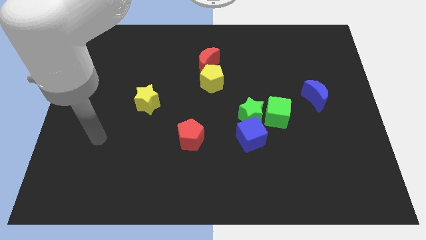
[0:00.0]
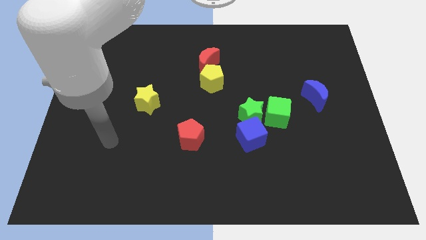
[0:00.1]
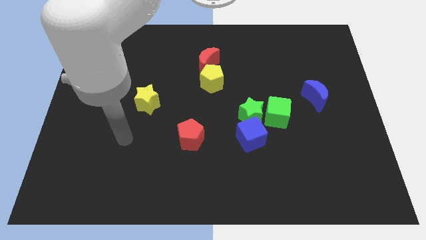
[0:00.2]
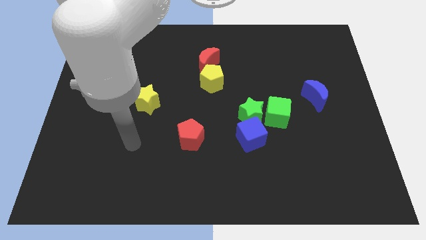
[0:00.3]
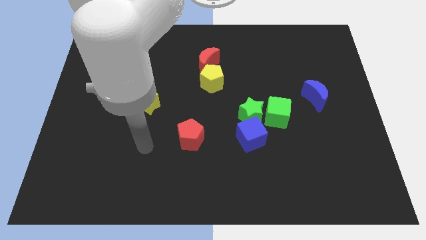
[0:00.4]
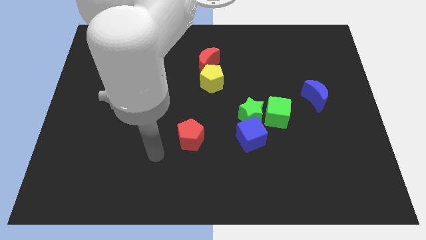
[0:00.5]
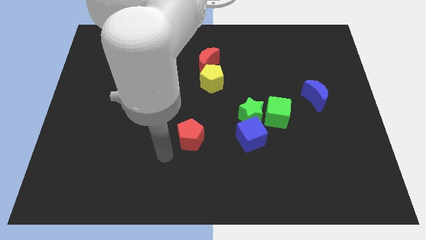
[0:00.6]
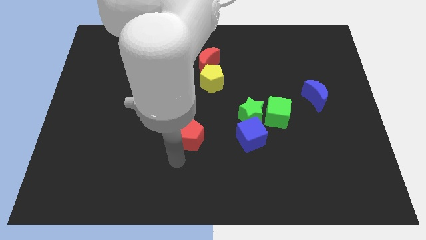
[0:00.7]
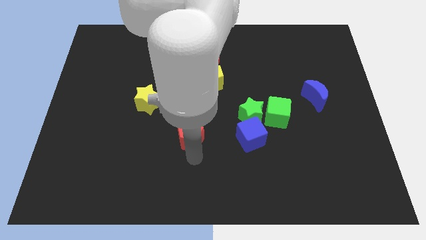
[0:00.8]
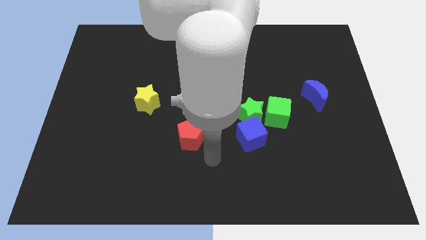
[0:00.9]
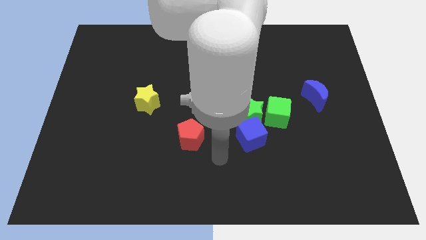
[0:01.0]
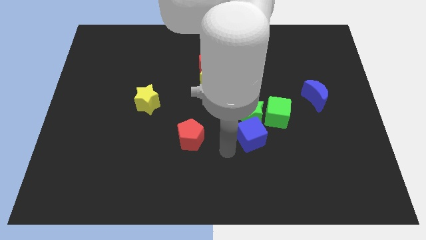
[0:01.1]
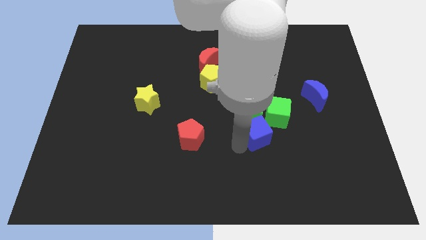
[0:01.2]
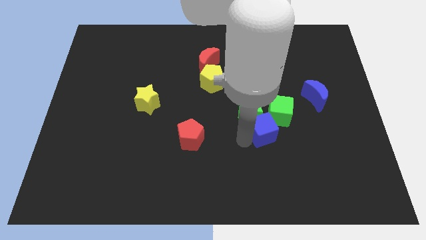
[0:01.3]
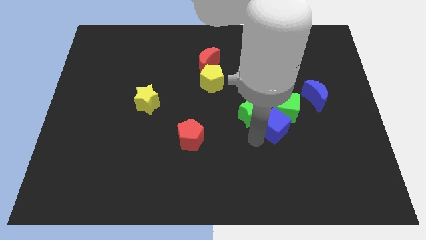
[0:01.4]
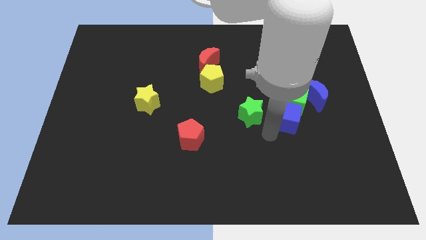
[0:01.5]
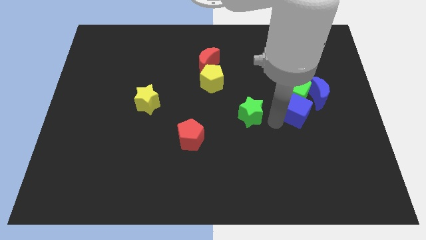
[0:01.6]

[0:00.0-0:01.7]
move the green star away from the blue cube and green cube

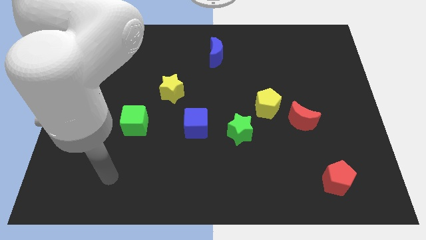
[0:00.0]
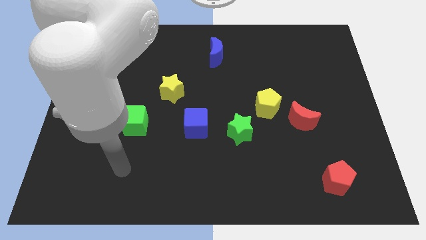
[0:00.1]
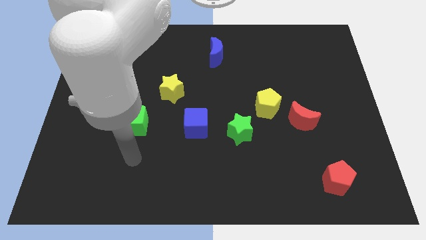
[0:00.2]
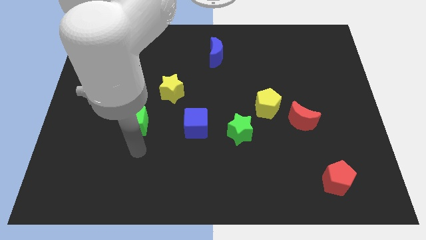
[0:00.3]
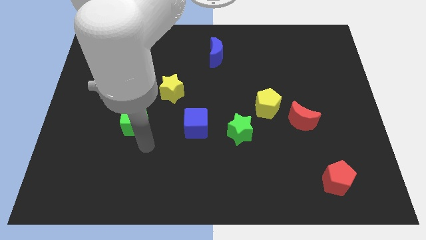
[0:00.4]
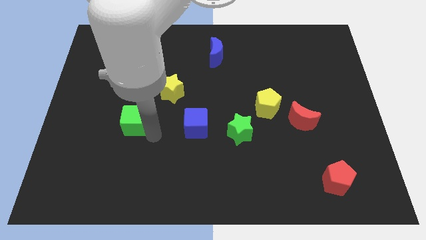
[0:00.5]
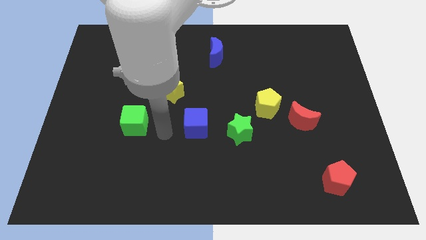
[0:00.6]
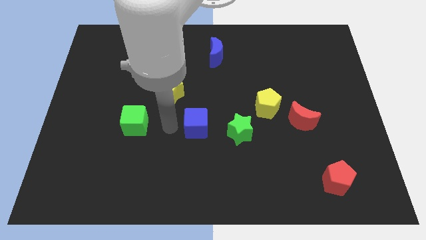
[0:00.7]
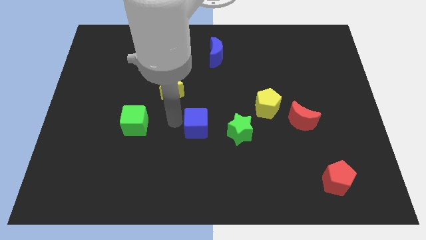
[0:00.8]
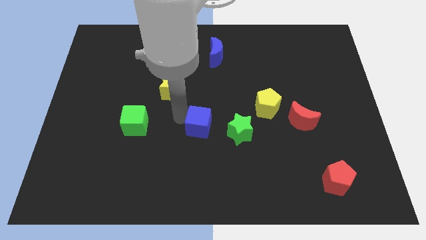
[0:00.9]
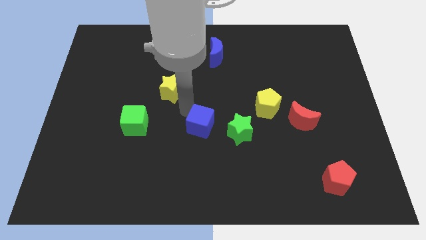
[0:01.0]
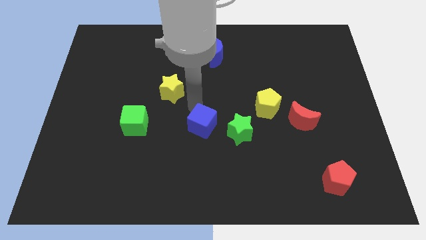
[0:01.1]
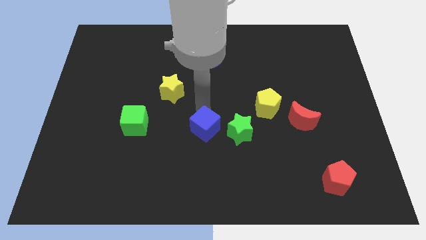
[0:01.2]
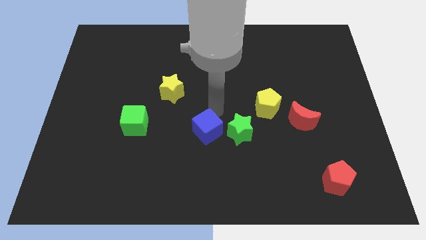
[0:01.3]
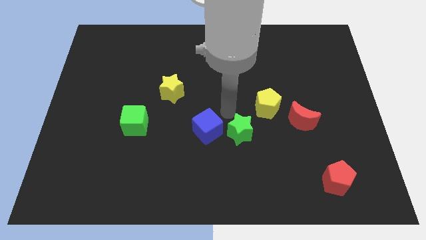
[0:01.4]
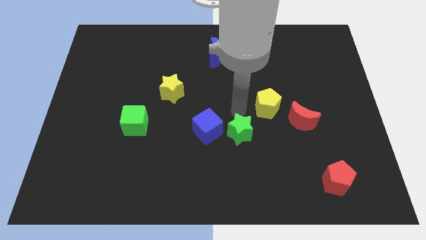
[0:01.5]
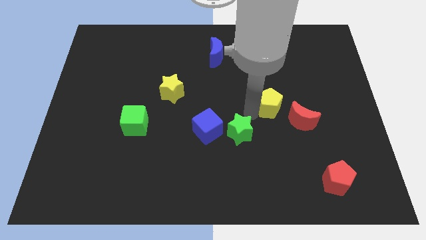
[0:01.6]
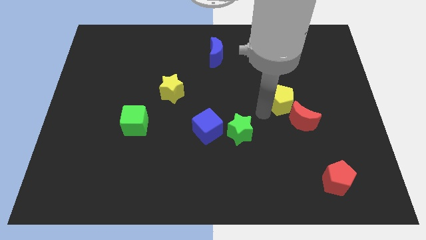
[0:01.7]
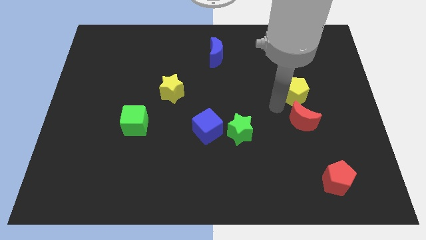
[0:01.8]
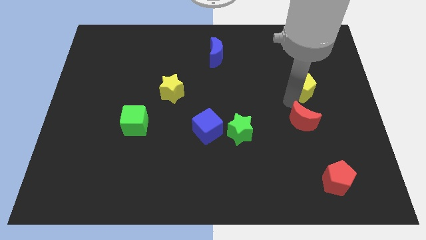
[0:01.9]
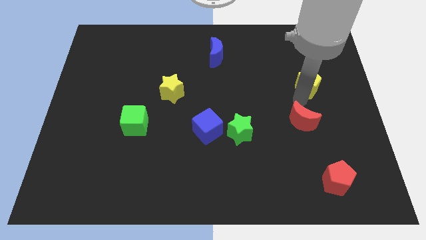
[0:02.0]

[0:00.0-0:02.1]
pull the red moon apart from the yellow pentagon

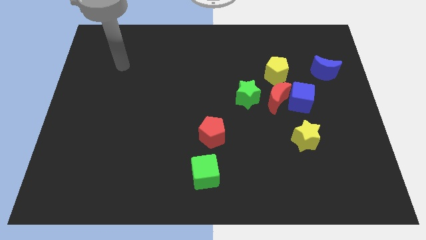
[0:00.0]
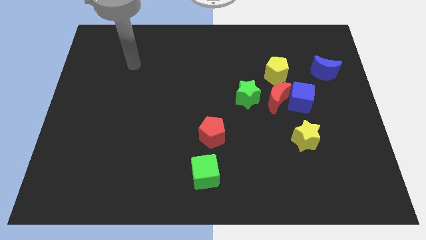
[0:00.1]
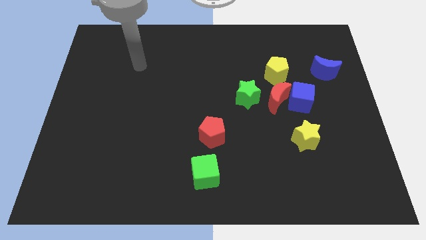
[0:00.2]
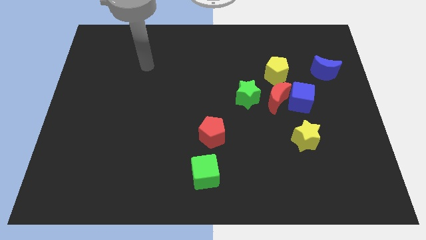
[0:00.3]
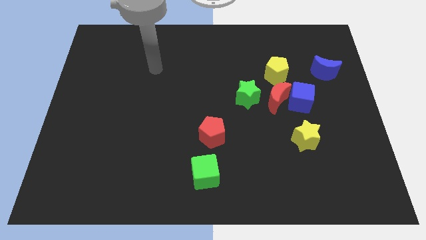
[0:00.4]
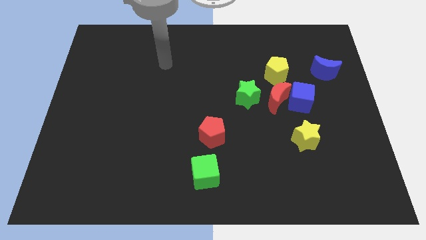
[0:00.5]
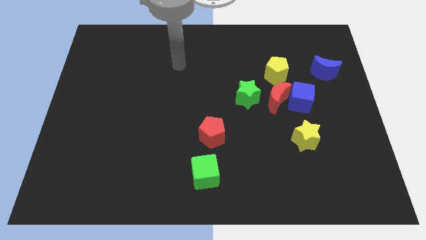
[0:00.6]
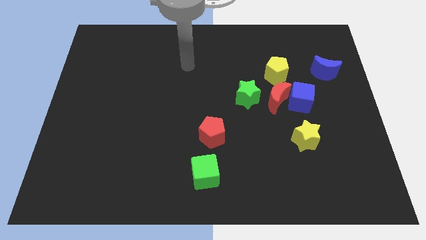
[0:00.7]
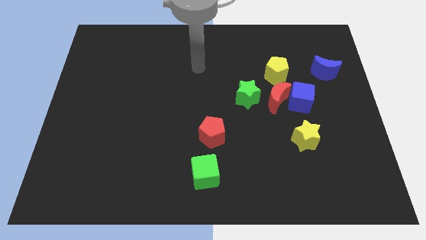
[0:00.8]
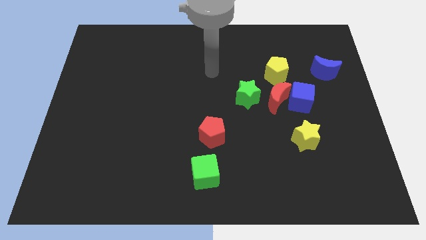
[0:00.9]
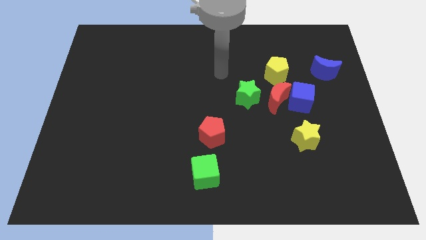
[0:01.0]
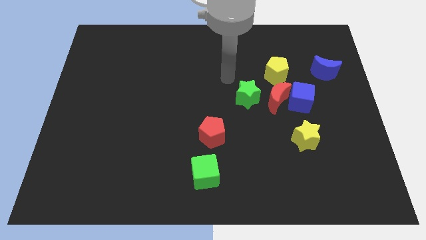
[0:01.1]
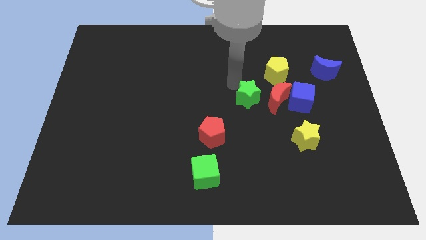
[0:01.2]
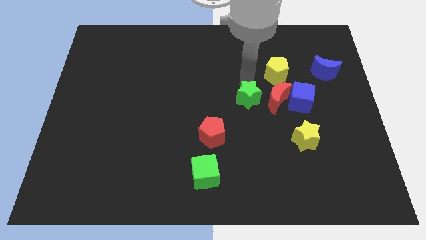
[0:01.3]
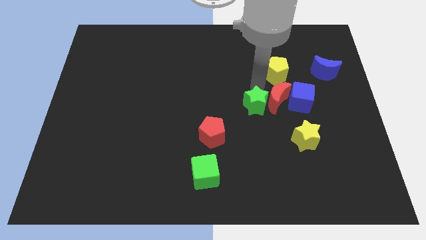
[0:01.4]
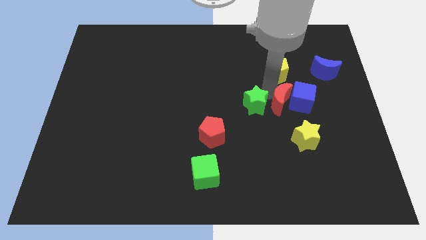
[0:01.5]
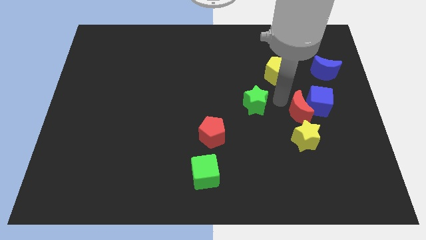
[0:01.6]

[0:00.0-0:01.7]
move the green star away from the red moon

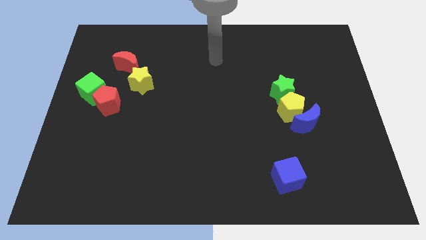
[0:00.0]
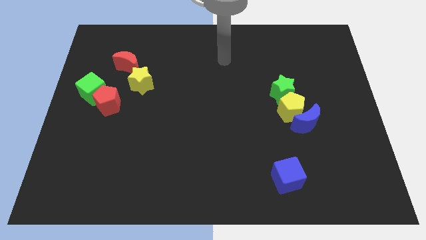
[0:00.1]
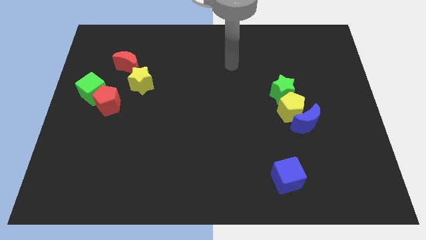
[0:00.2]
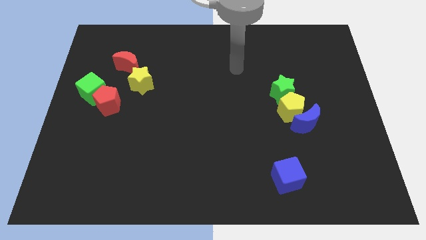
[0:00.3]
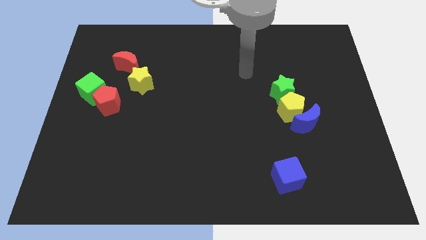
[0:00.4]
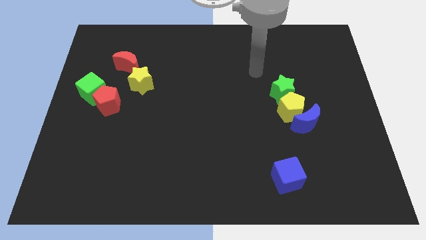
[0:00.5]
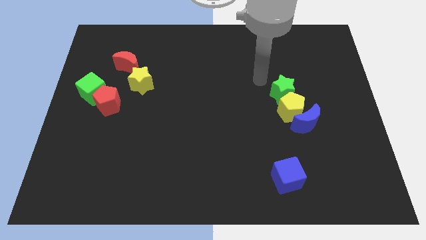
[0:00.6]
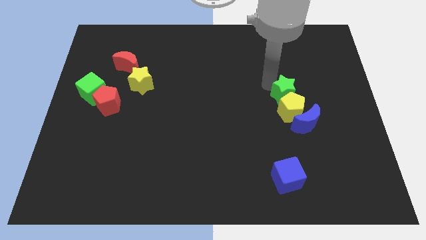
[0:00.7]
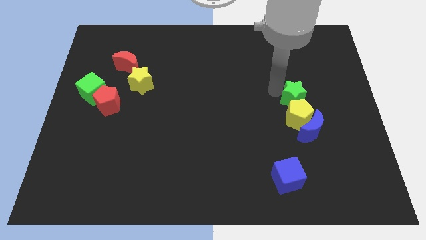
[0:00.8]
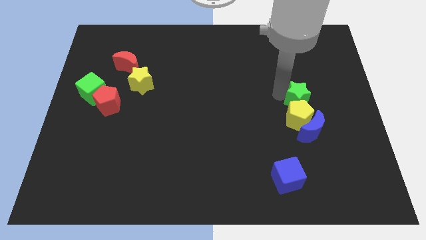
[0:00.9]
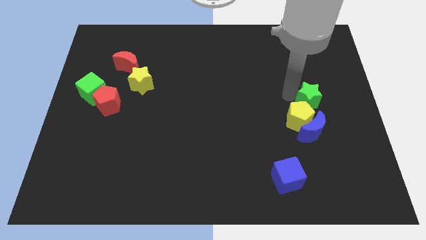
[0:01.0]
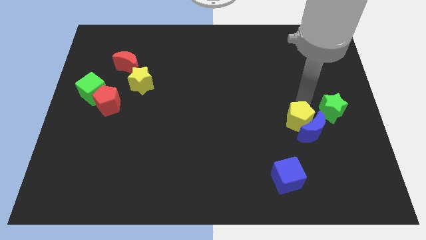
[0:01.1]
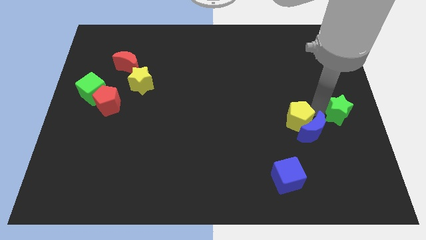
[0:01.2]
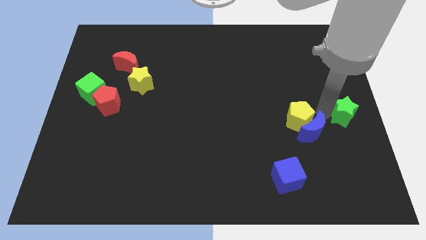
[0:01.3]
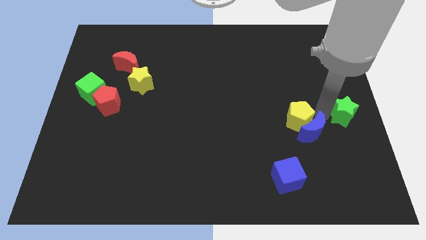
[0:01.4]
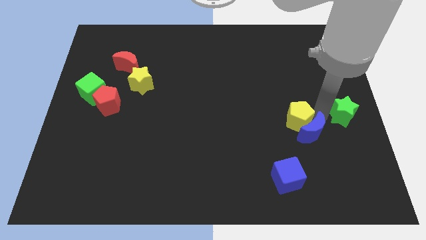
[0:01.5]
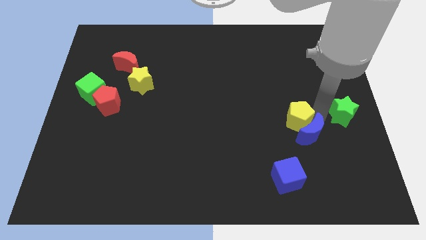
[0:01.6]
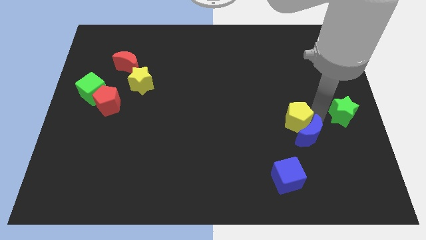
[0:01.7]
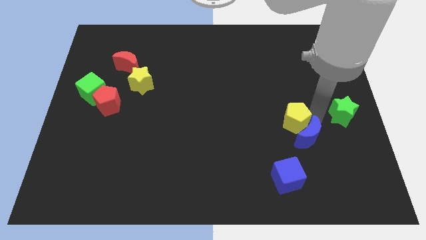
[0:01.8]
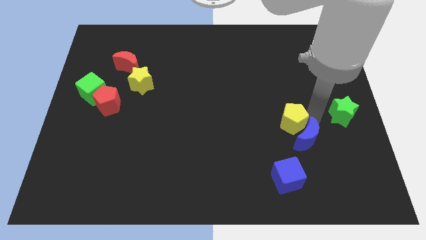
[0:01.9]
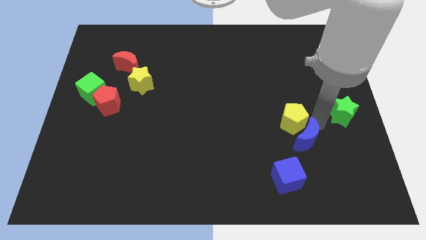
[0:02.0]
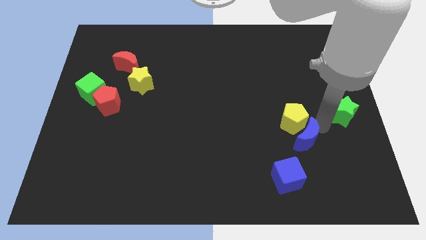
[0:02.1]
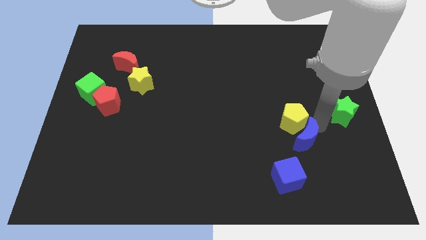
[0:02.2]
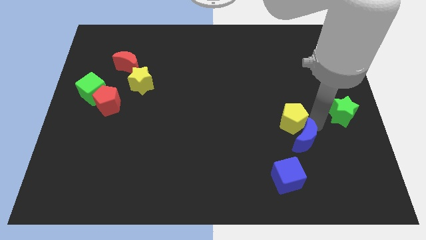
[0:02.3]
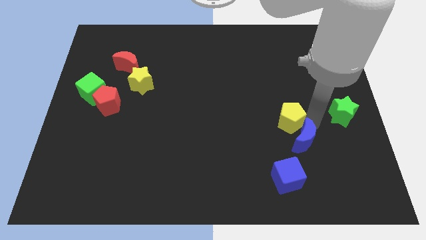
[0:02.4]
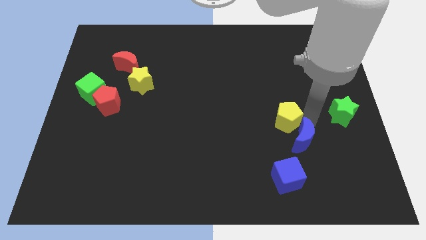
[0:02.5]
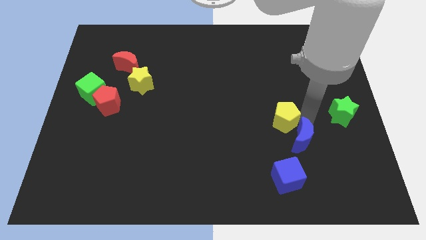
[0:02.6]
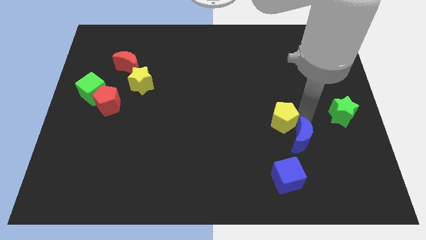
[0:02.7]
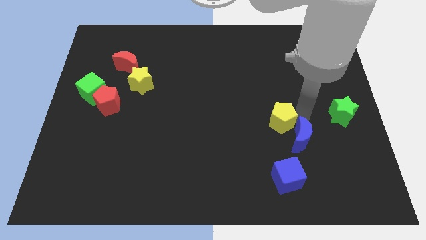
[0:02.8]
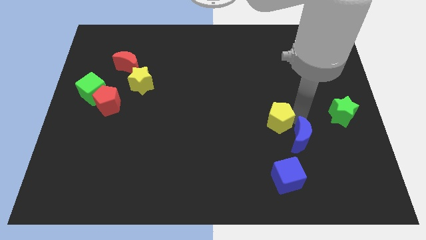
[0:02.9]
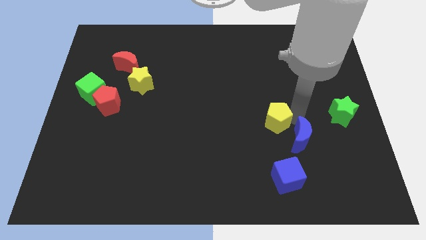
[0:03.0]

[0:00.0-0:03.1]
pull the yellow pentagon apart from the blue moon and green star

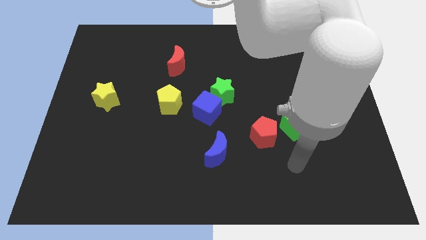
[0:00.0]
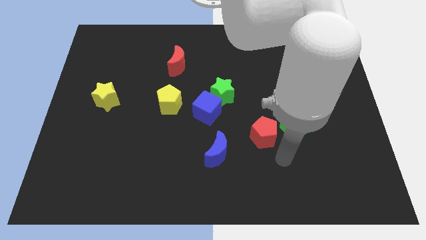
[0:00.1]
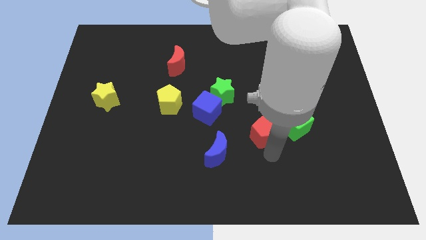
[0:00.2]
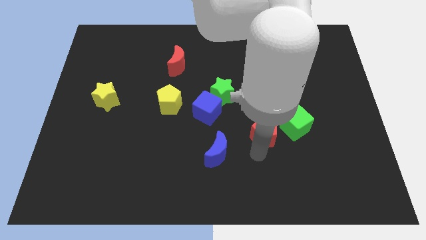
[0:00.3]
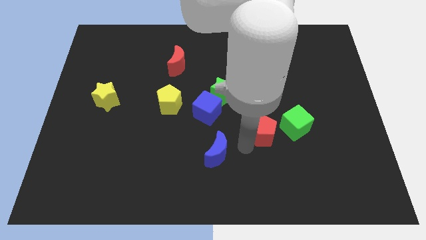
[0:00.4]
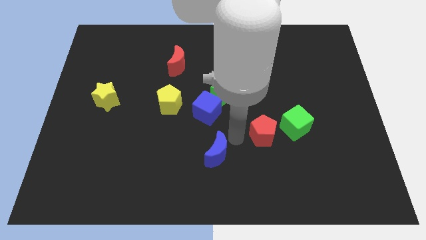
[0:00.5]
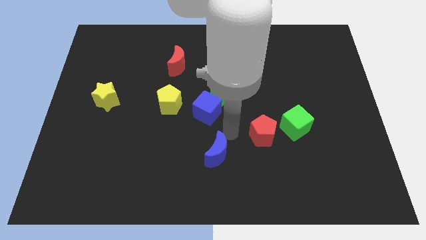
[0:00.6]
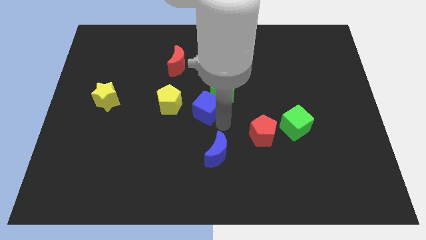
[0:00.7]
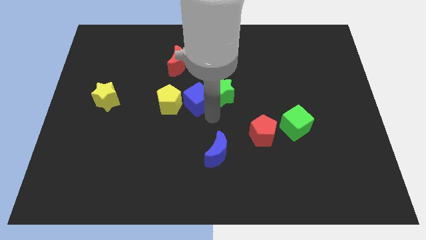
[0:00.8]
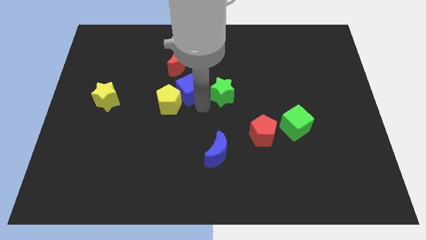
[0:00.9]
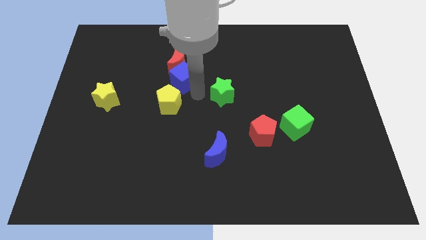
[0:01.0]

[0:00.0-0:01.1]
separate the green star from the blue cube
